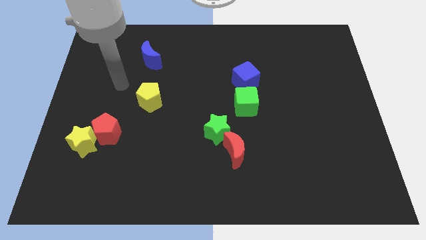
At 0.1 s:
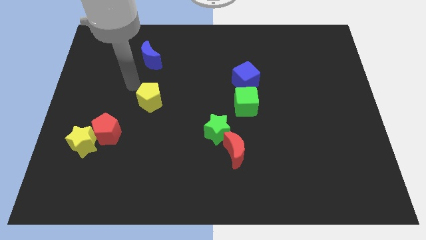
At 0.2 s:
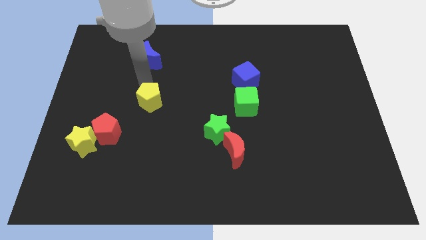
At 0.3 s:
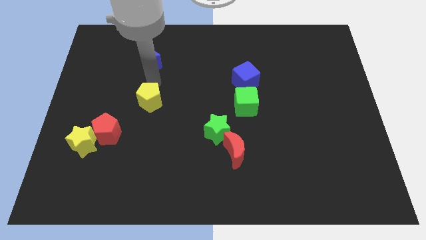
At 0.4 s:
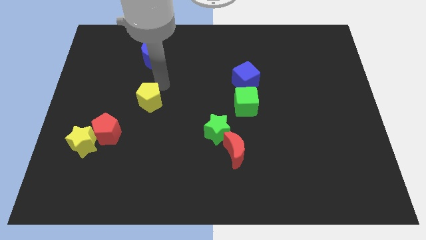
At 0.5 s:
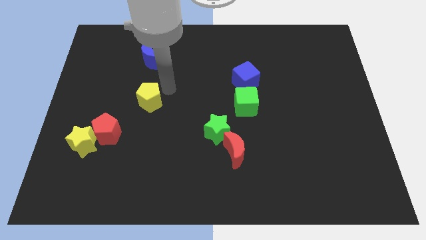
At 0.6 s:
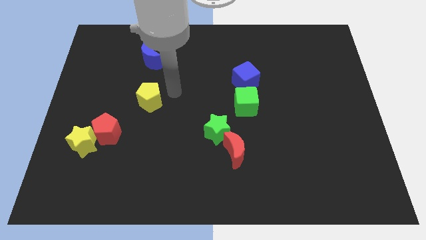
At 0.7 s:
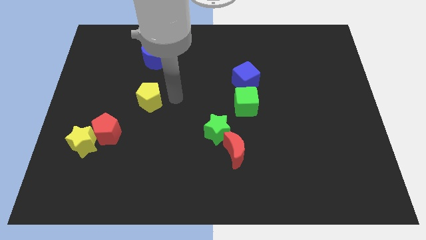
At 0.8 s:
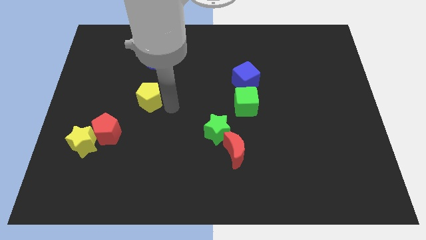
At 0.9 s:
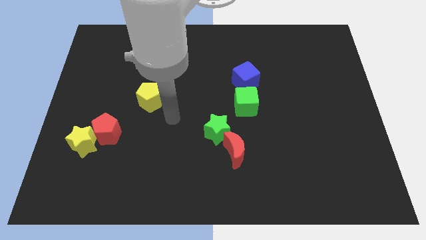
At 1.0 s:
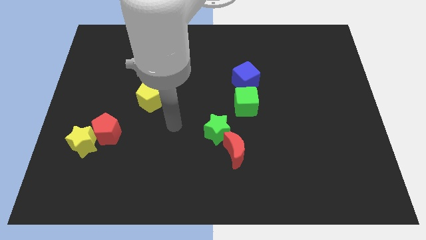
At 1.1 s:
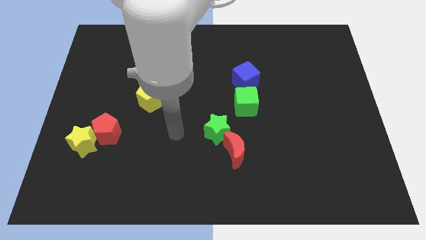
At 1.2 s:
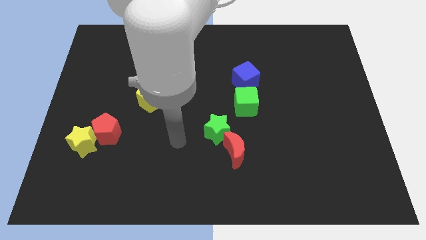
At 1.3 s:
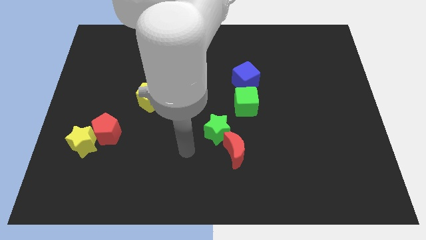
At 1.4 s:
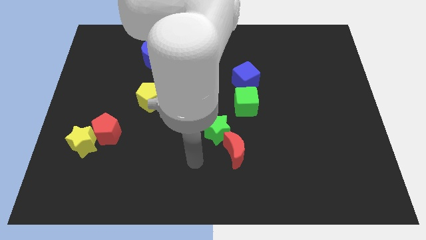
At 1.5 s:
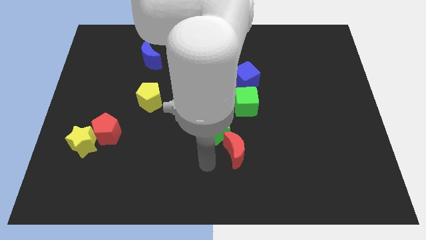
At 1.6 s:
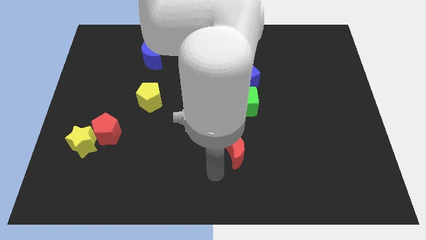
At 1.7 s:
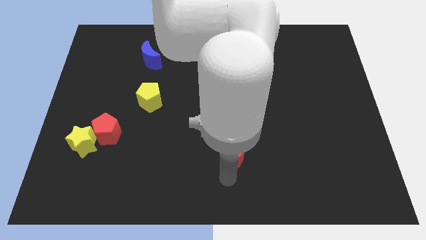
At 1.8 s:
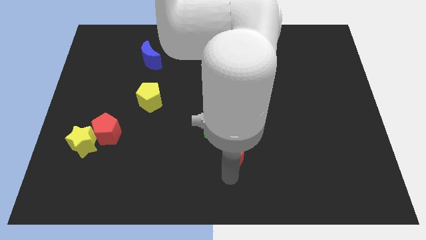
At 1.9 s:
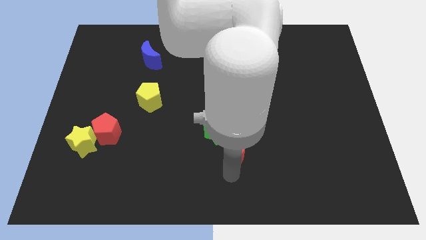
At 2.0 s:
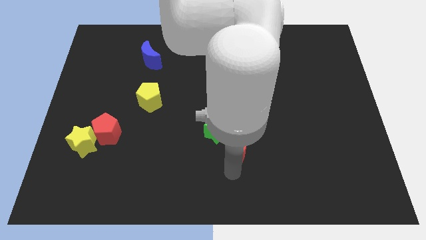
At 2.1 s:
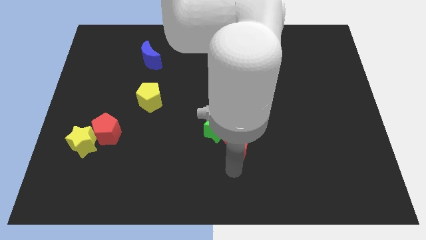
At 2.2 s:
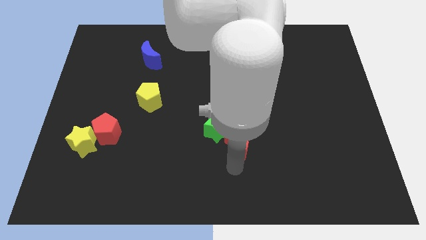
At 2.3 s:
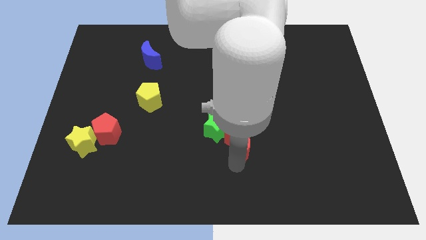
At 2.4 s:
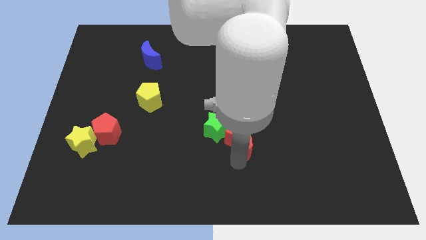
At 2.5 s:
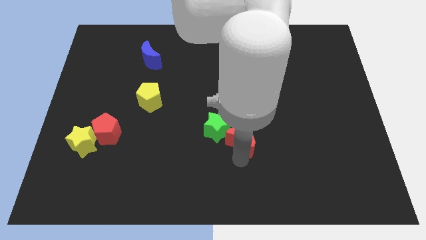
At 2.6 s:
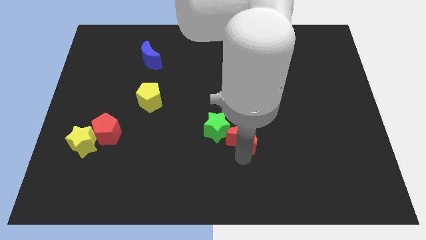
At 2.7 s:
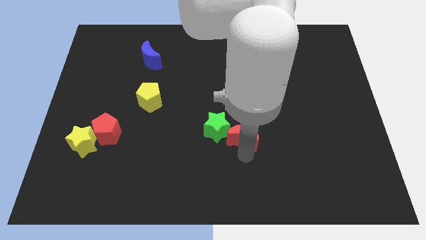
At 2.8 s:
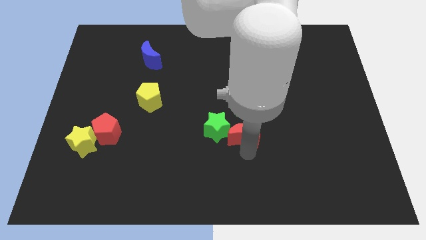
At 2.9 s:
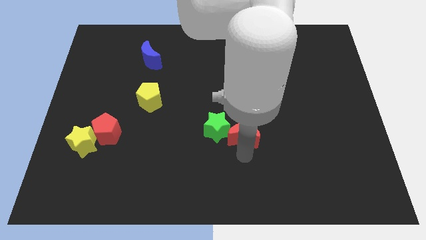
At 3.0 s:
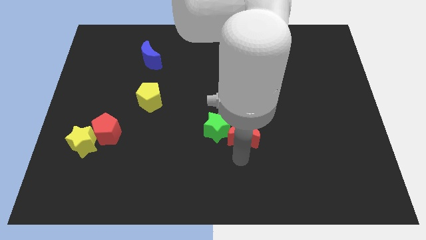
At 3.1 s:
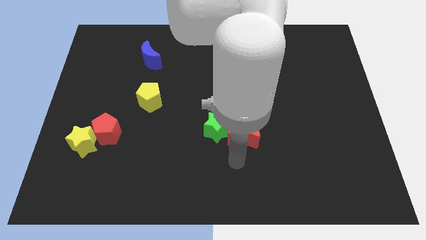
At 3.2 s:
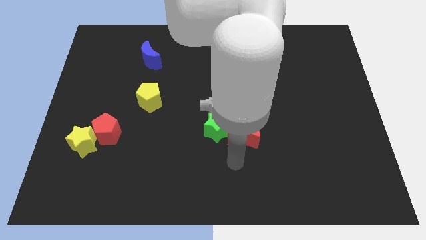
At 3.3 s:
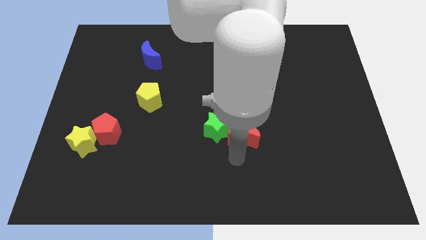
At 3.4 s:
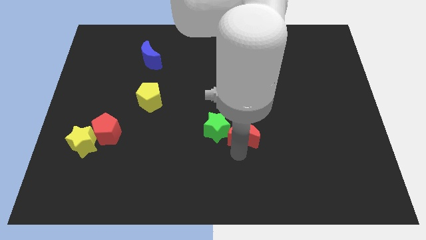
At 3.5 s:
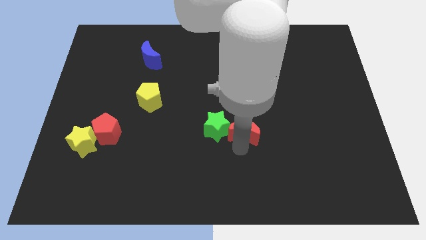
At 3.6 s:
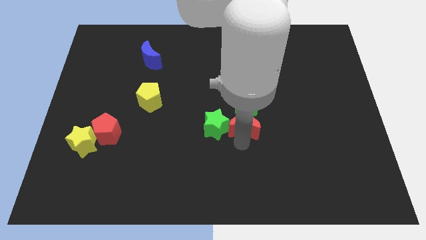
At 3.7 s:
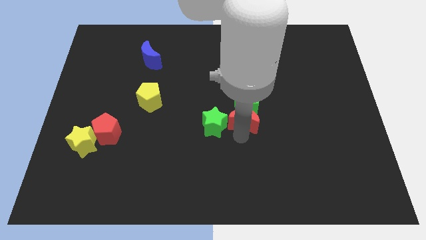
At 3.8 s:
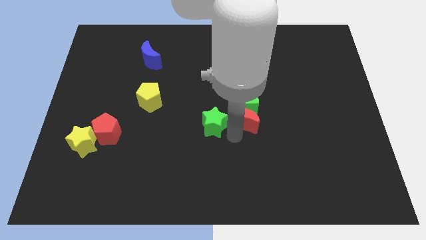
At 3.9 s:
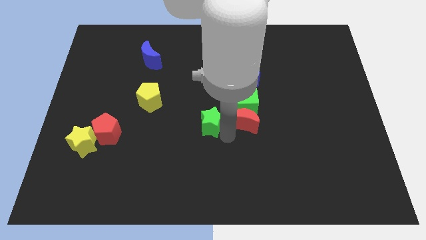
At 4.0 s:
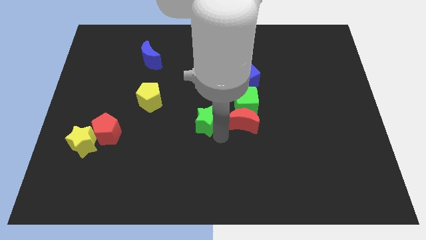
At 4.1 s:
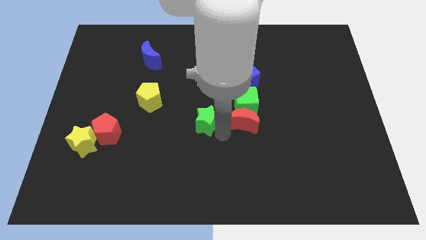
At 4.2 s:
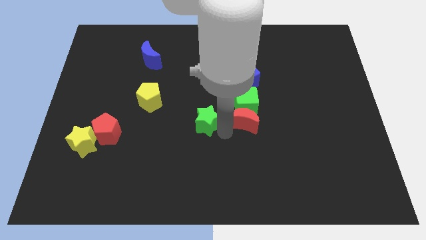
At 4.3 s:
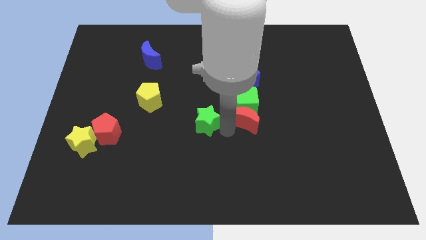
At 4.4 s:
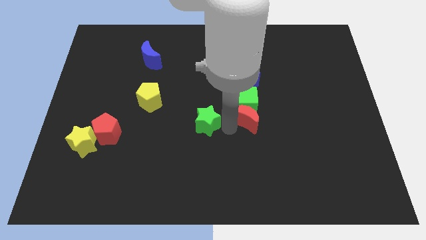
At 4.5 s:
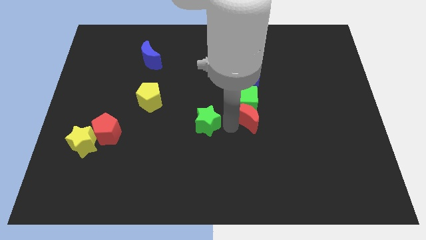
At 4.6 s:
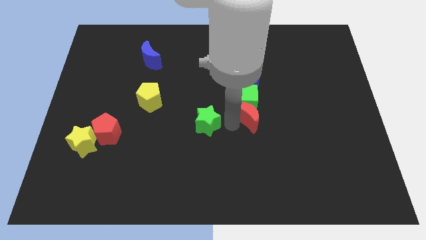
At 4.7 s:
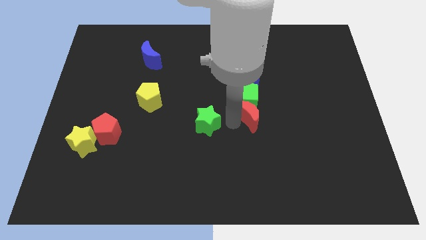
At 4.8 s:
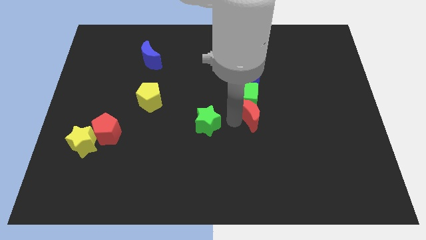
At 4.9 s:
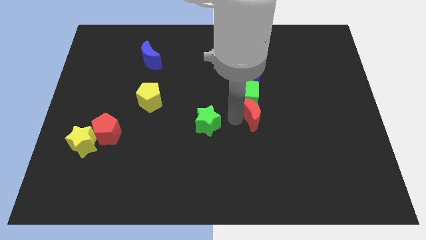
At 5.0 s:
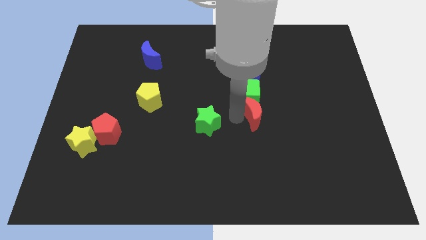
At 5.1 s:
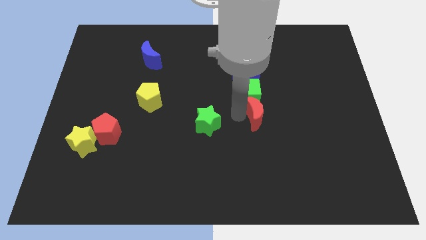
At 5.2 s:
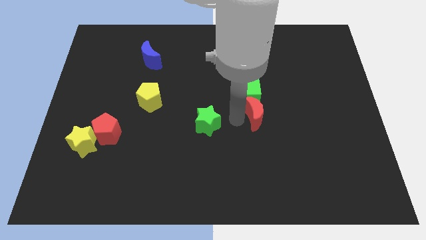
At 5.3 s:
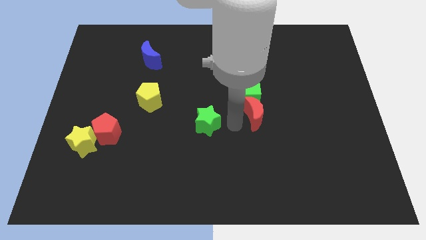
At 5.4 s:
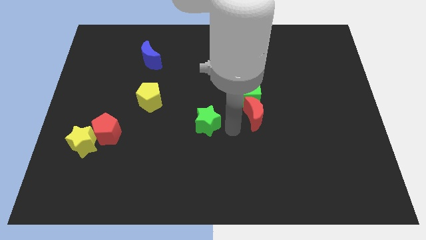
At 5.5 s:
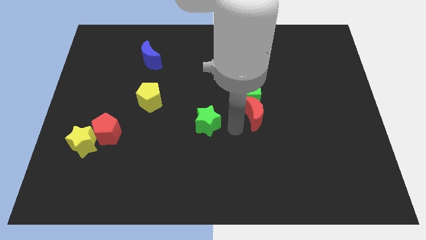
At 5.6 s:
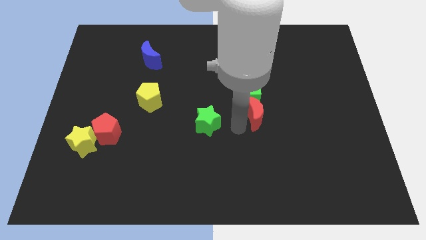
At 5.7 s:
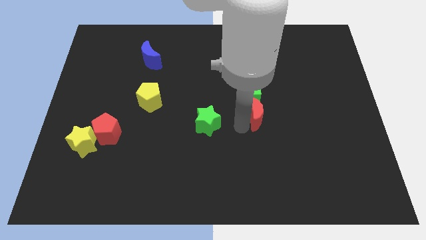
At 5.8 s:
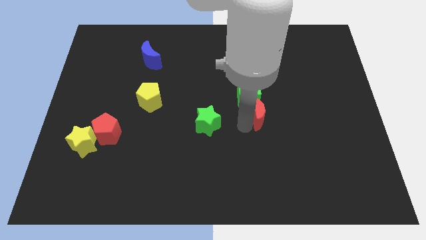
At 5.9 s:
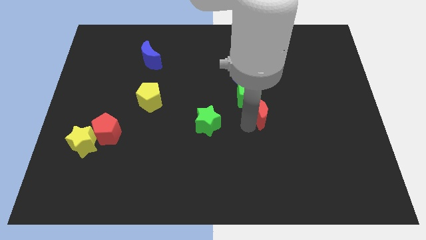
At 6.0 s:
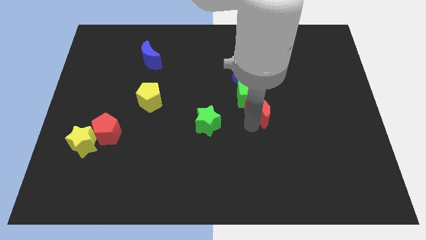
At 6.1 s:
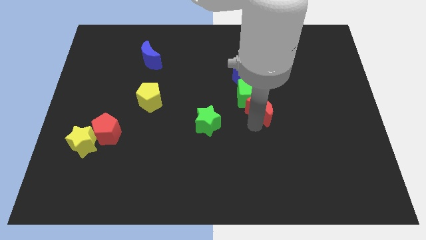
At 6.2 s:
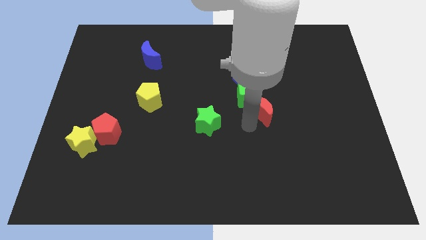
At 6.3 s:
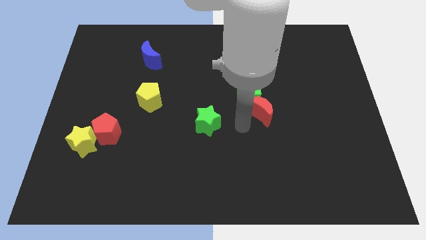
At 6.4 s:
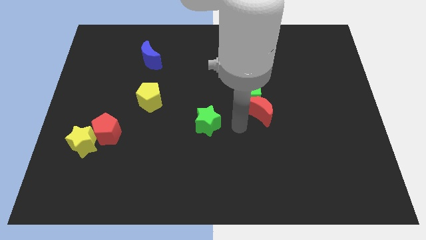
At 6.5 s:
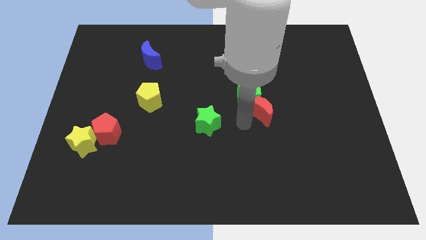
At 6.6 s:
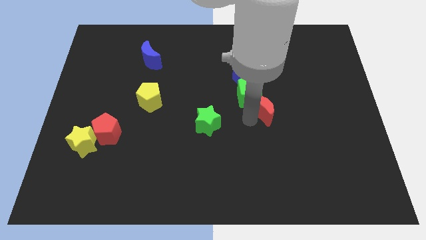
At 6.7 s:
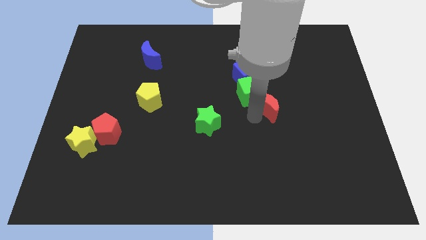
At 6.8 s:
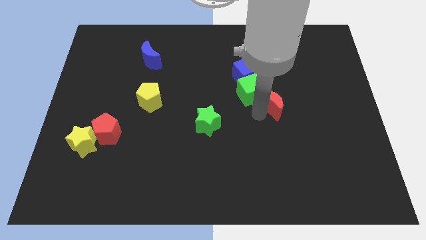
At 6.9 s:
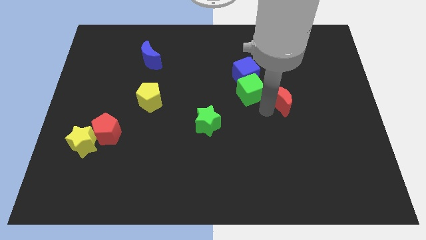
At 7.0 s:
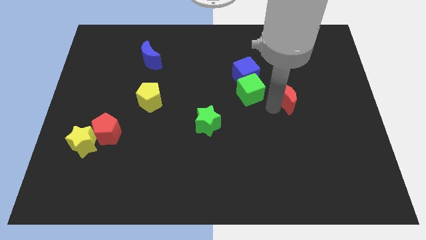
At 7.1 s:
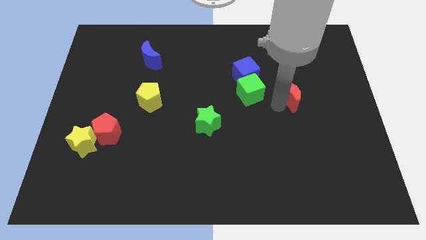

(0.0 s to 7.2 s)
slide the red moon upwards and to the right diagonally

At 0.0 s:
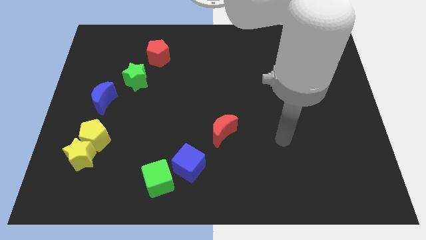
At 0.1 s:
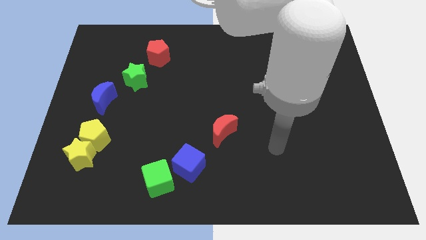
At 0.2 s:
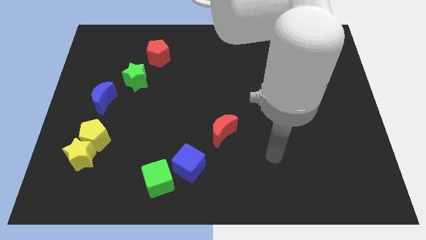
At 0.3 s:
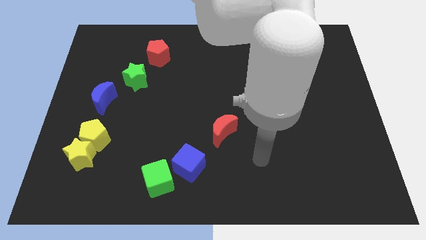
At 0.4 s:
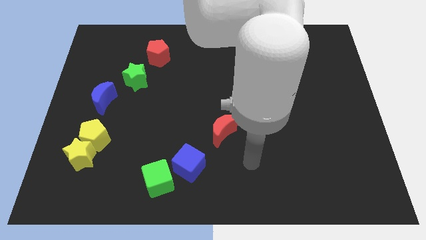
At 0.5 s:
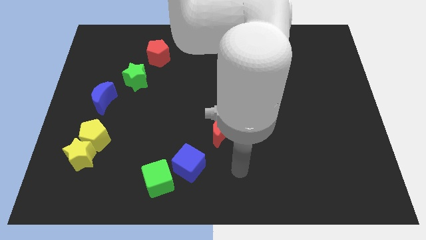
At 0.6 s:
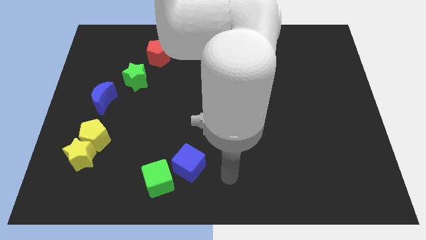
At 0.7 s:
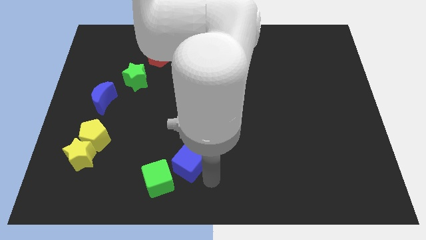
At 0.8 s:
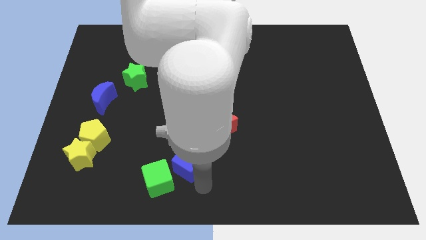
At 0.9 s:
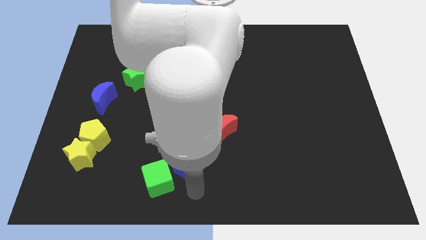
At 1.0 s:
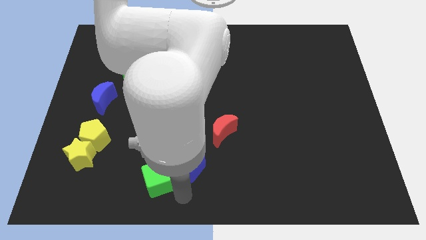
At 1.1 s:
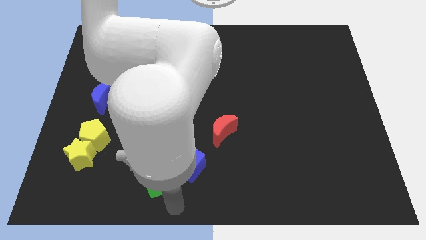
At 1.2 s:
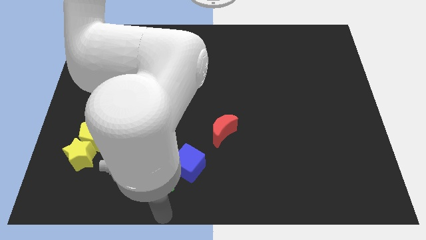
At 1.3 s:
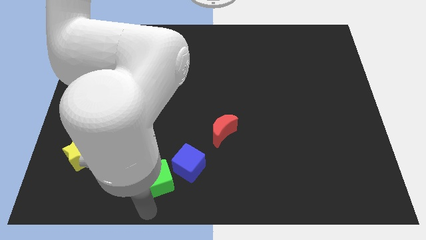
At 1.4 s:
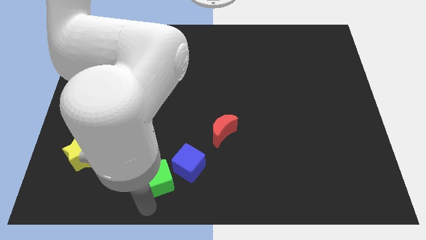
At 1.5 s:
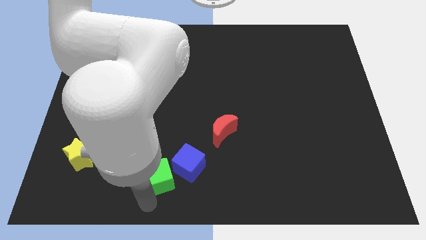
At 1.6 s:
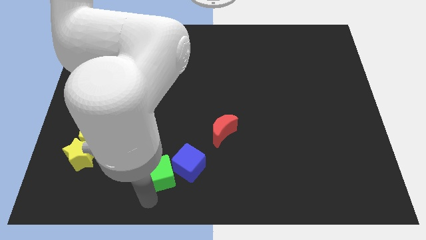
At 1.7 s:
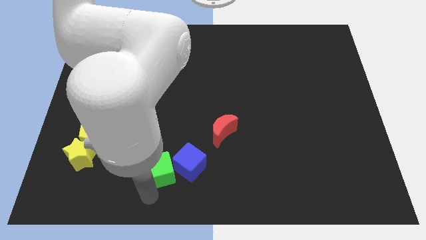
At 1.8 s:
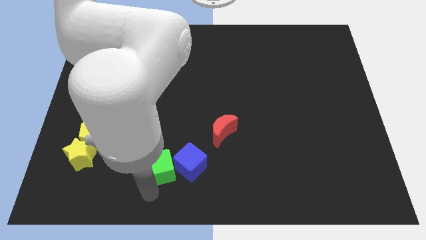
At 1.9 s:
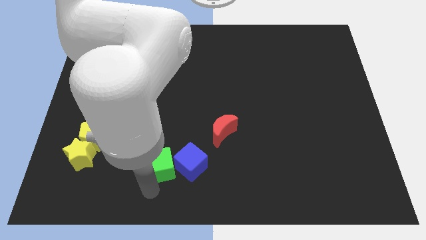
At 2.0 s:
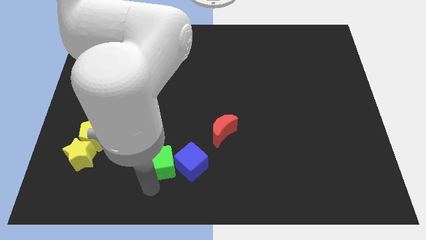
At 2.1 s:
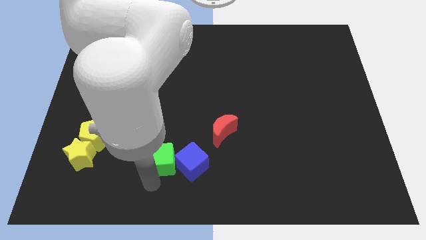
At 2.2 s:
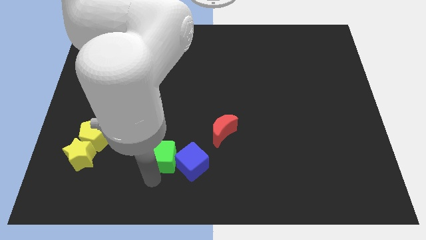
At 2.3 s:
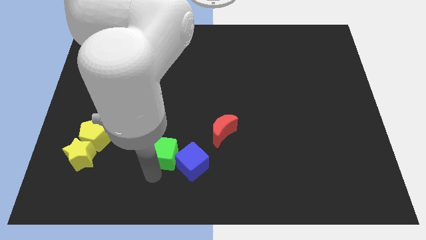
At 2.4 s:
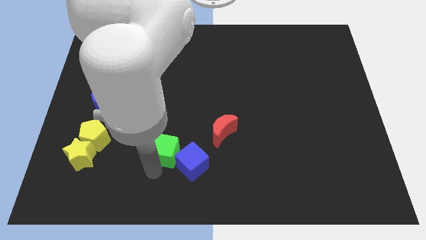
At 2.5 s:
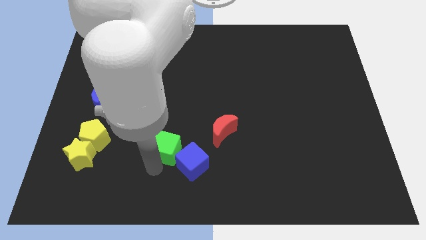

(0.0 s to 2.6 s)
slightly slide the green cube up
